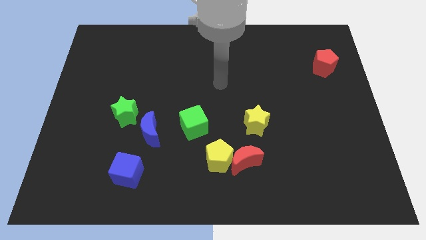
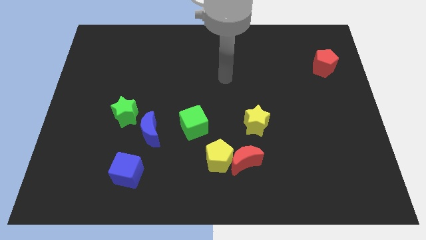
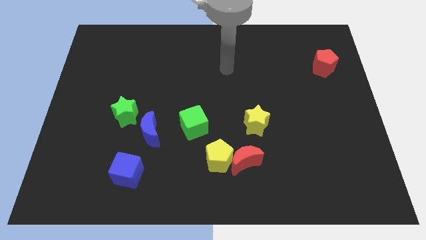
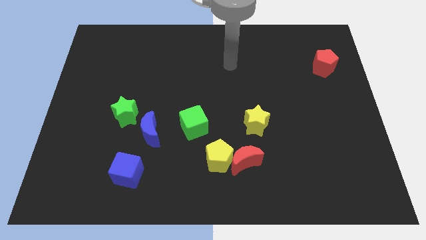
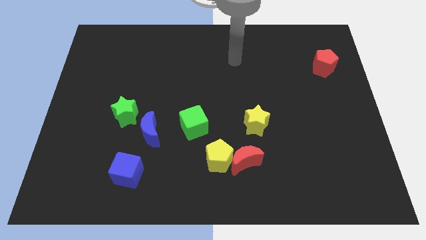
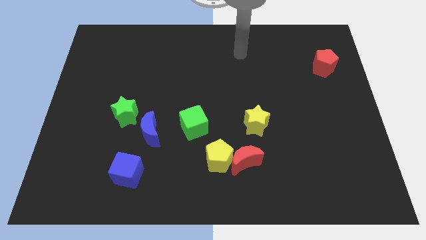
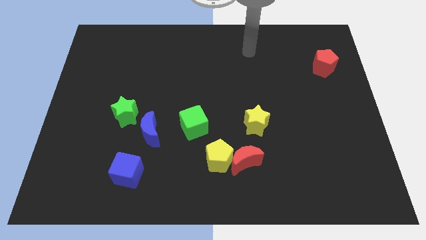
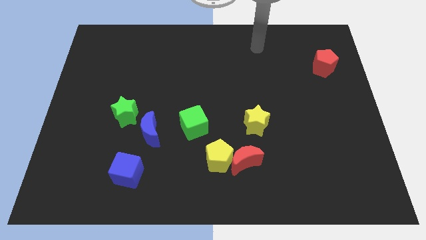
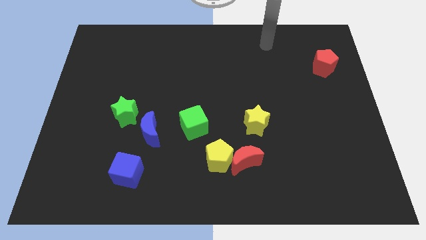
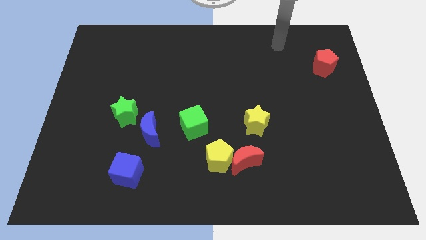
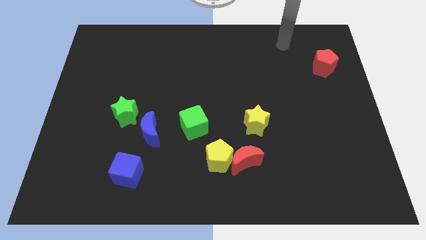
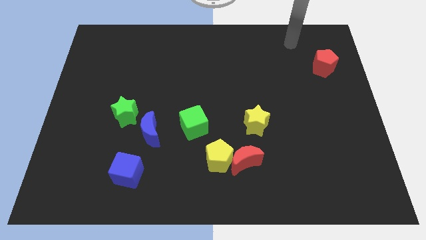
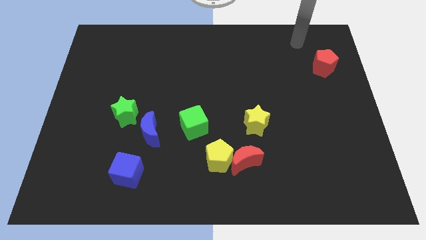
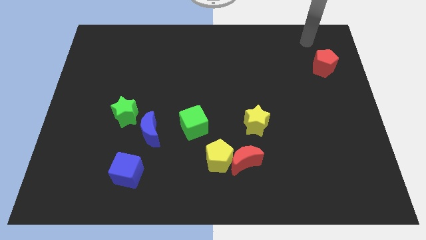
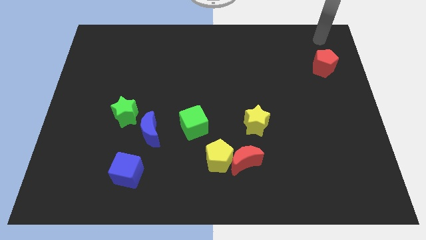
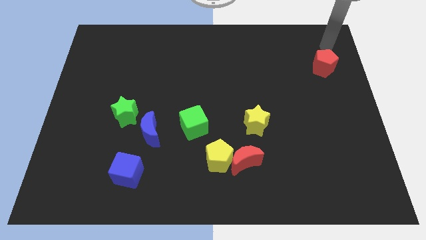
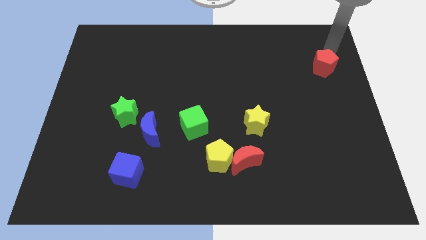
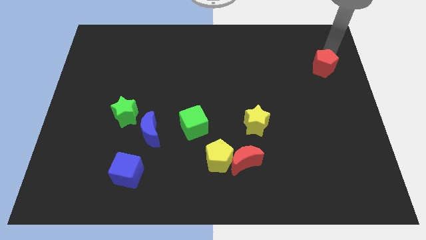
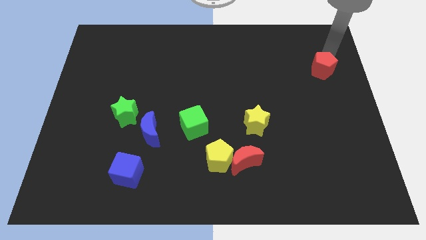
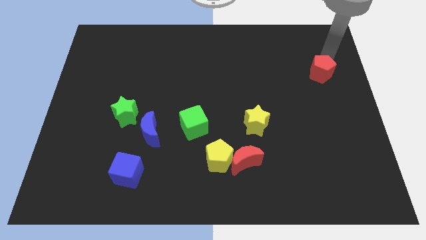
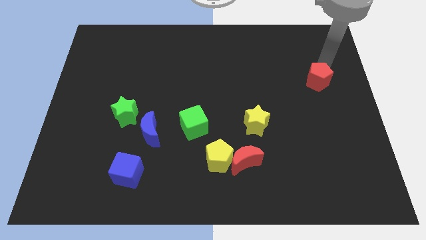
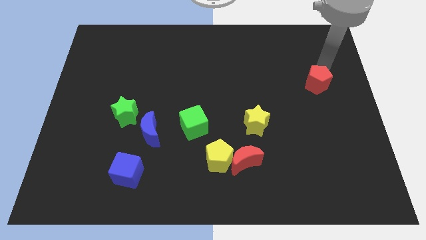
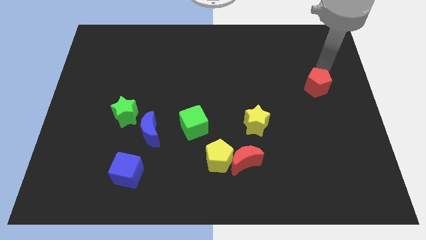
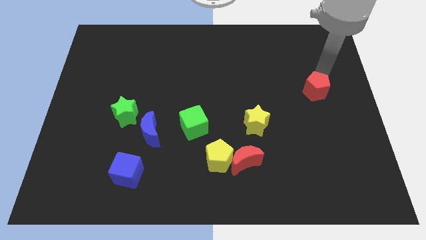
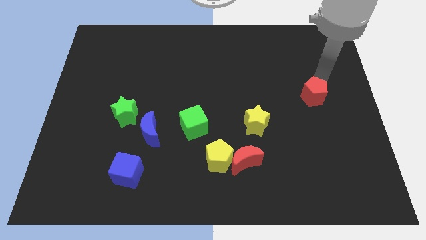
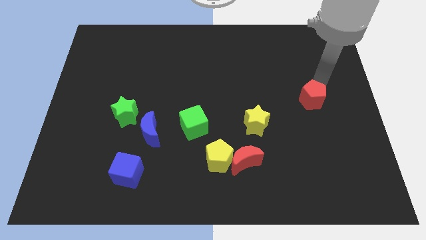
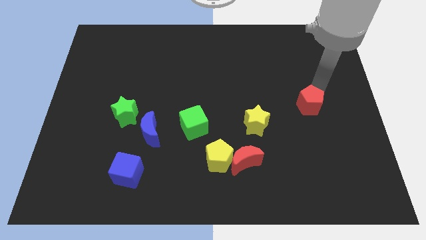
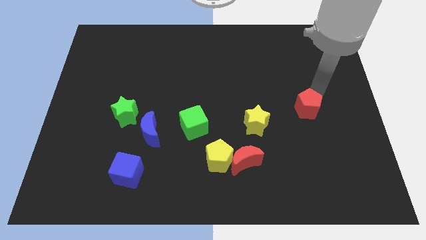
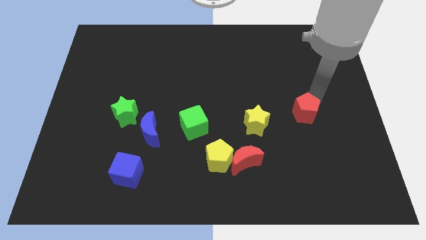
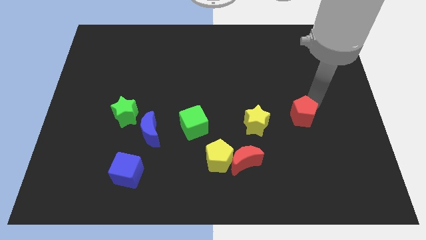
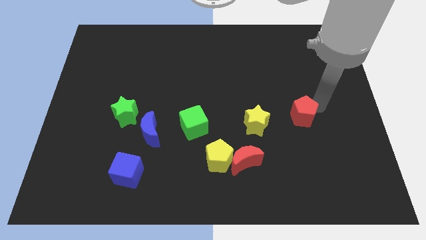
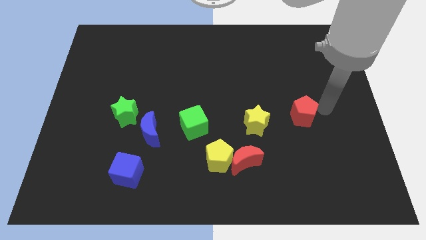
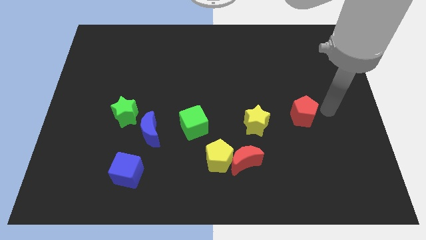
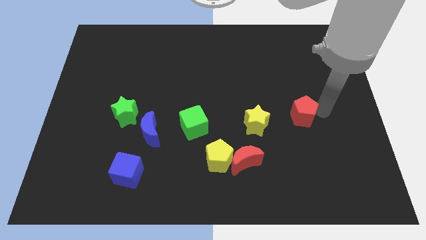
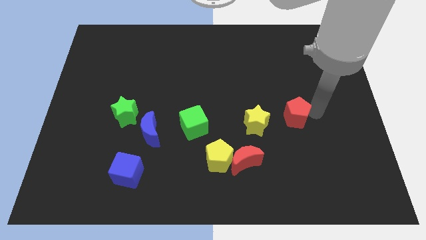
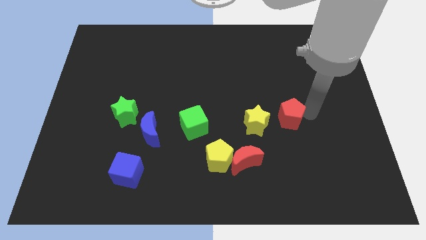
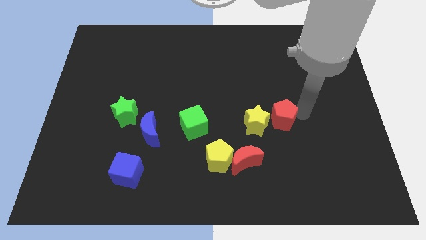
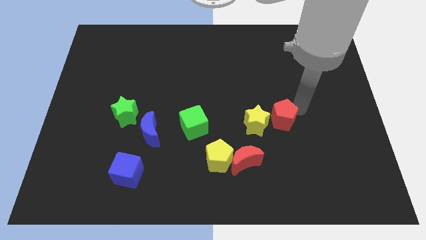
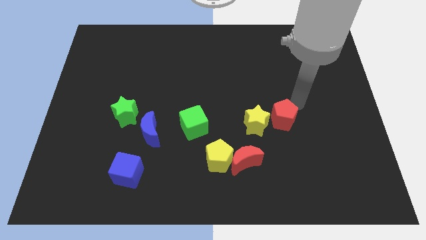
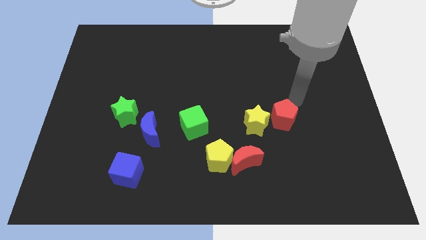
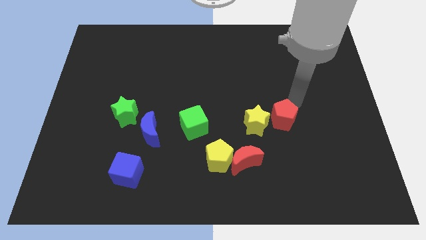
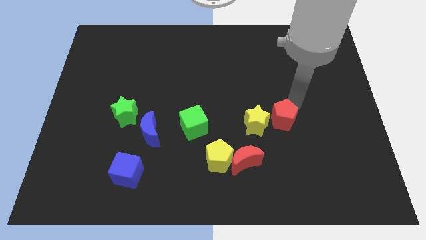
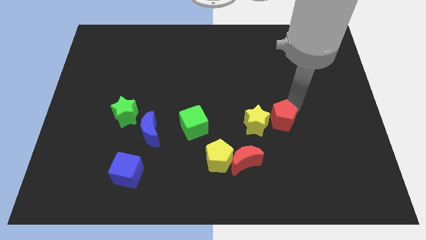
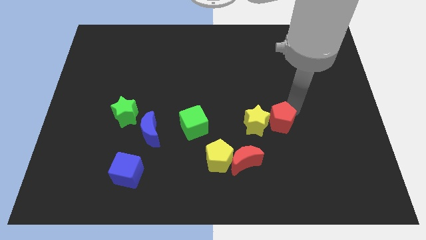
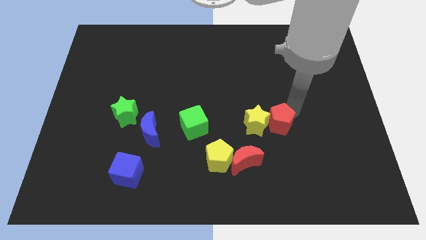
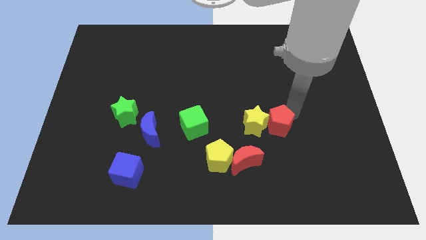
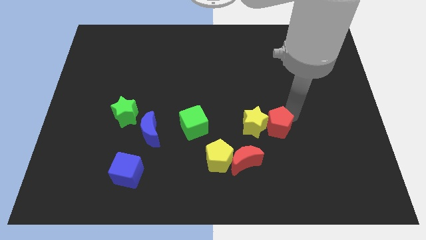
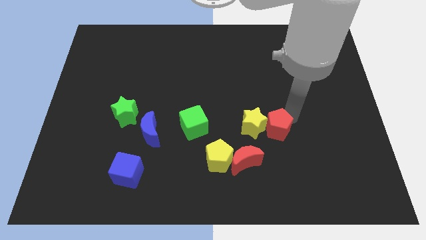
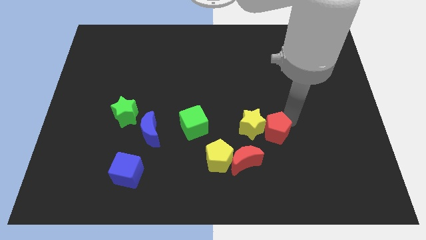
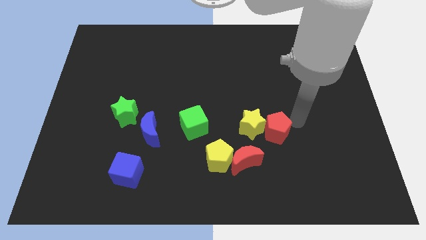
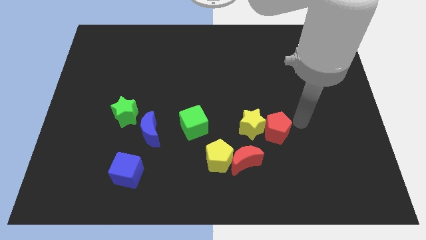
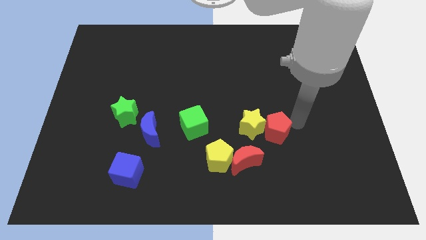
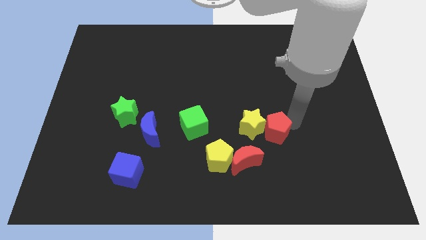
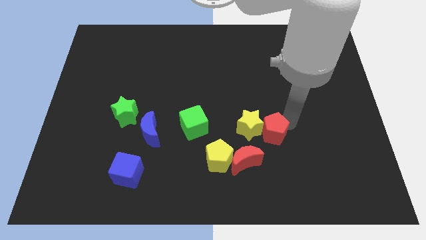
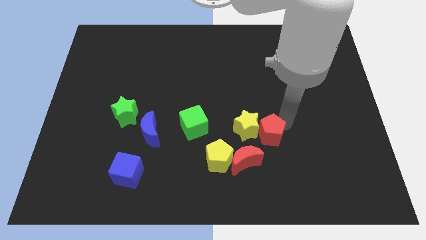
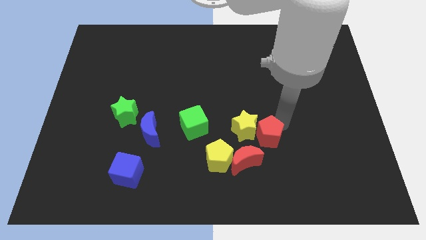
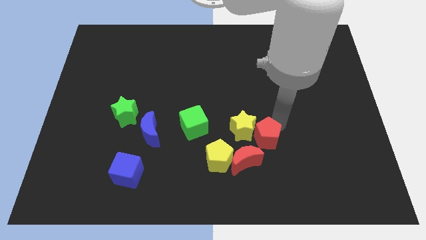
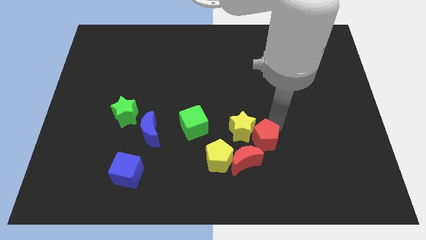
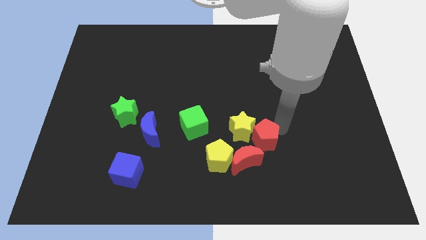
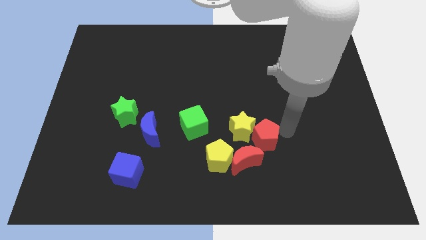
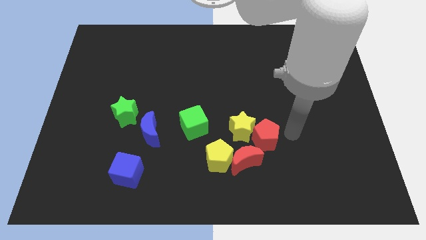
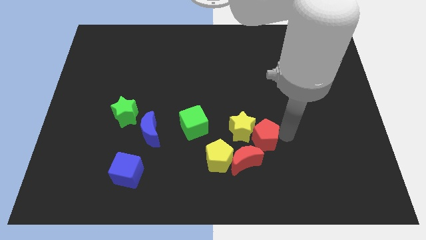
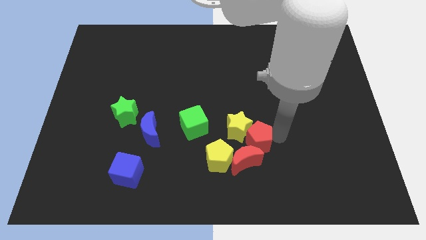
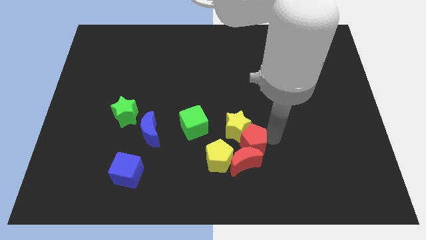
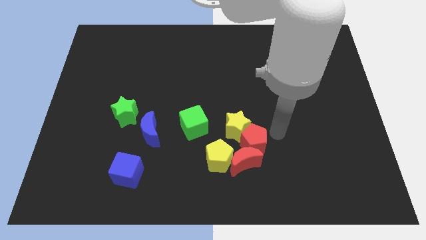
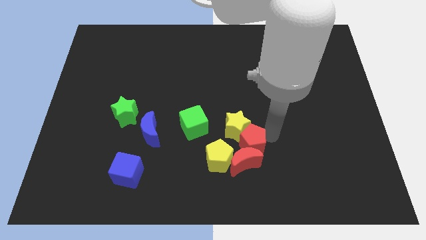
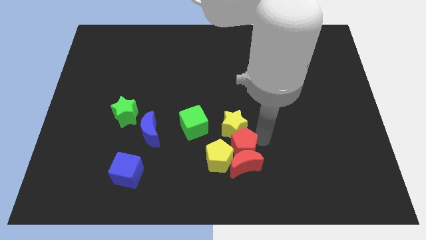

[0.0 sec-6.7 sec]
push the red pentagon towards the yellow pentagon
